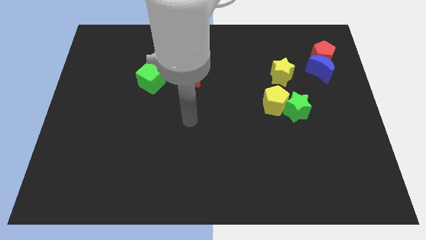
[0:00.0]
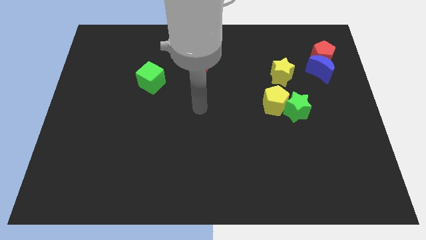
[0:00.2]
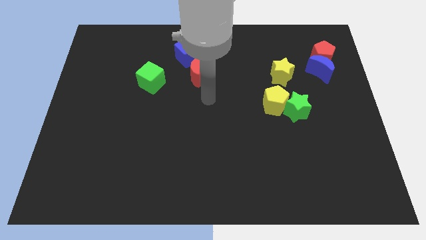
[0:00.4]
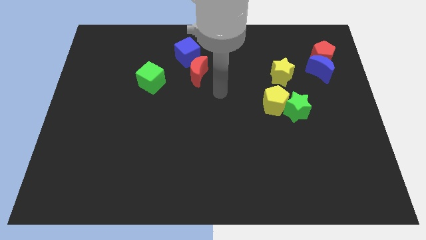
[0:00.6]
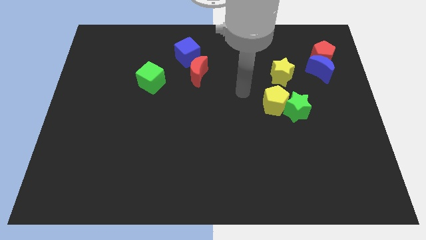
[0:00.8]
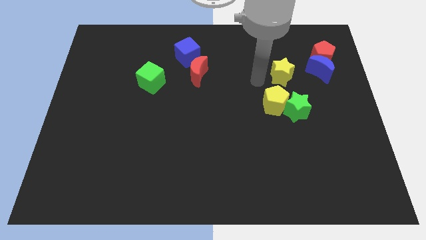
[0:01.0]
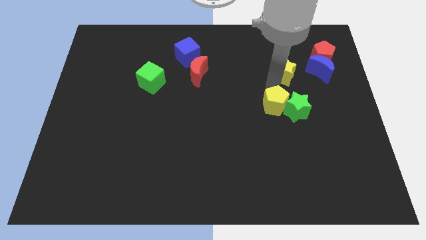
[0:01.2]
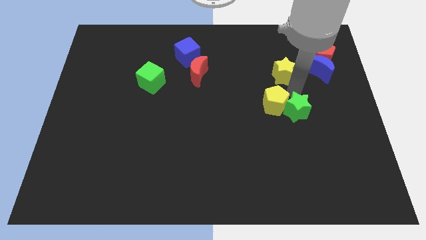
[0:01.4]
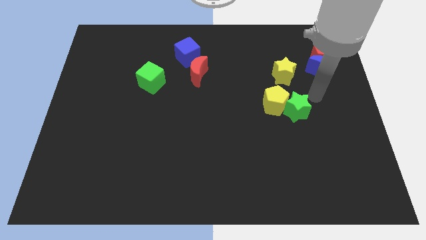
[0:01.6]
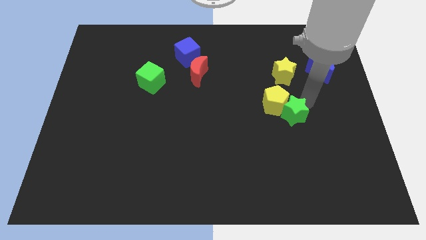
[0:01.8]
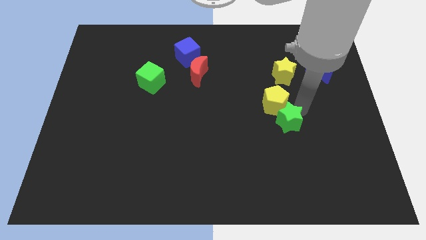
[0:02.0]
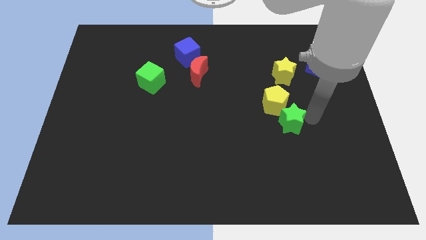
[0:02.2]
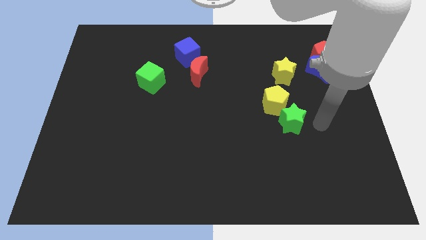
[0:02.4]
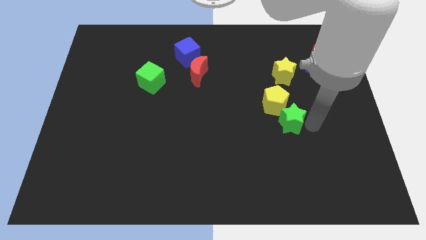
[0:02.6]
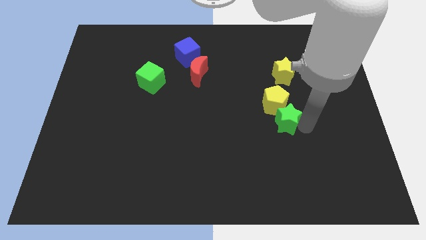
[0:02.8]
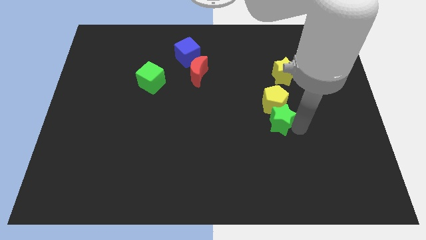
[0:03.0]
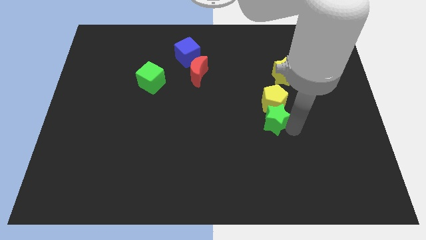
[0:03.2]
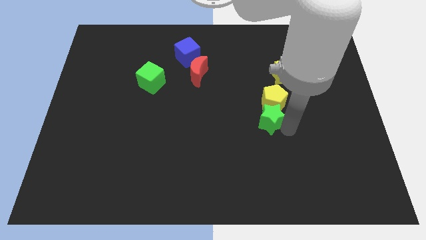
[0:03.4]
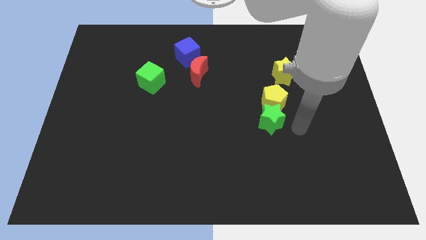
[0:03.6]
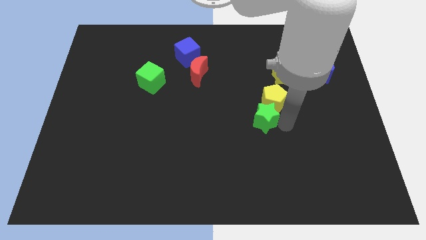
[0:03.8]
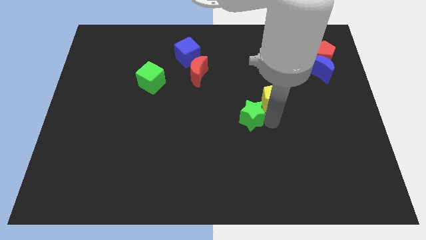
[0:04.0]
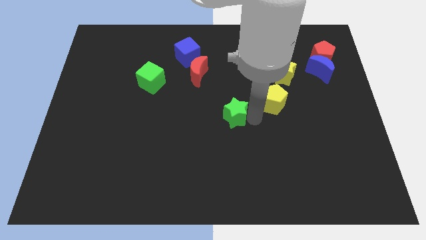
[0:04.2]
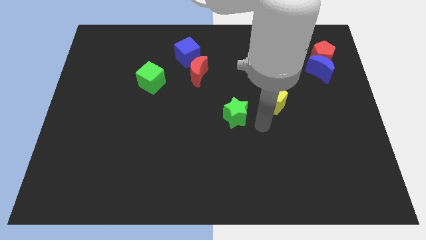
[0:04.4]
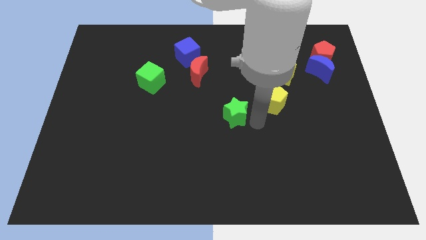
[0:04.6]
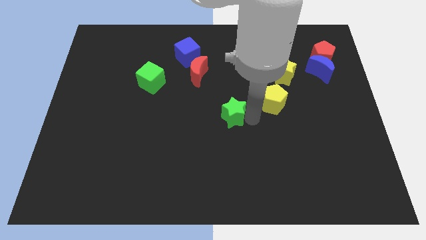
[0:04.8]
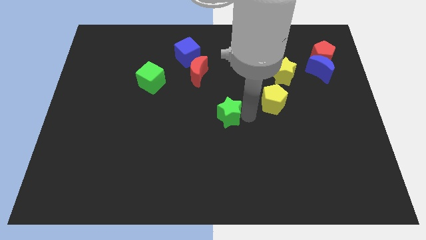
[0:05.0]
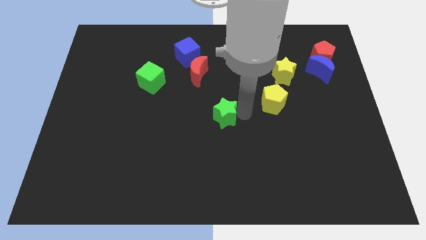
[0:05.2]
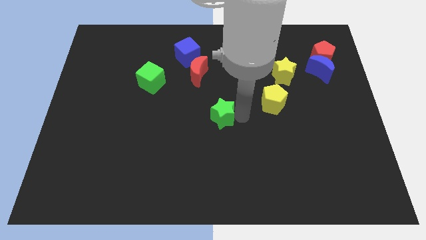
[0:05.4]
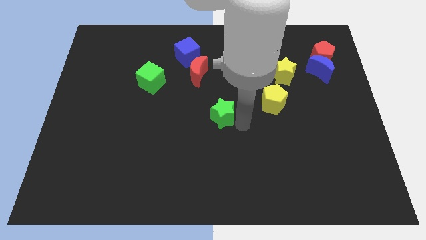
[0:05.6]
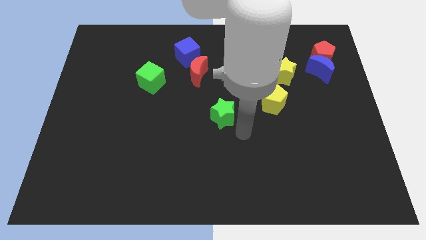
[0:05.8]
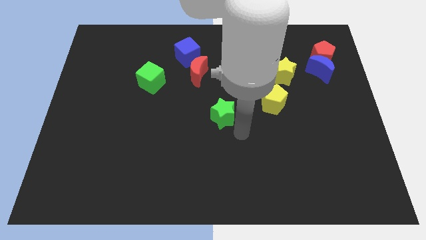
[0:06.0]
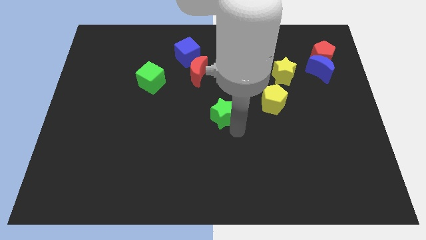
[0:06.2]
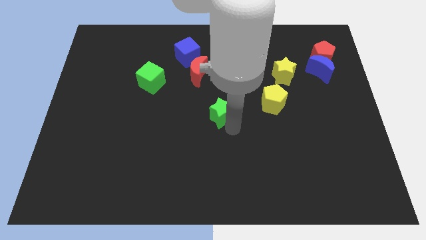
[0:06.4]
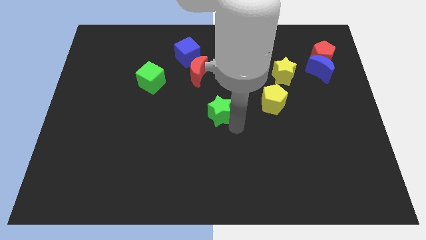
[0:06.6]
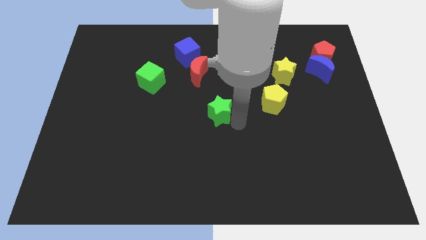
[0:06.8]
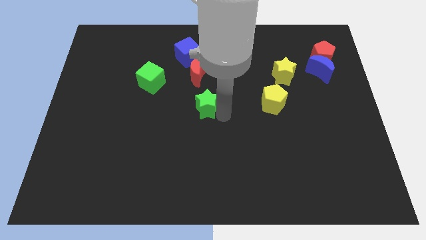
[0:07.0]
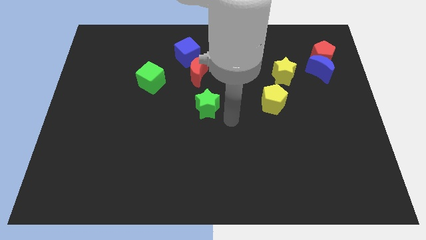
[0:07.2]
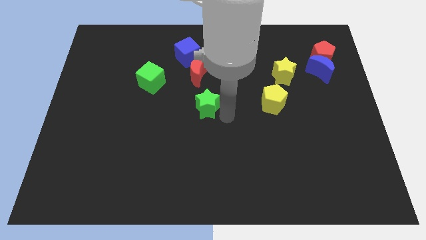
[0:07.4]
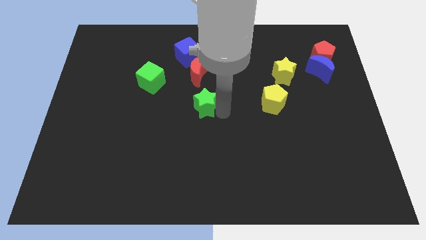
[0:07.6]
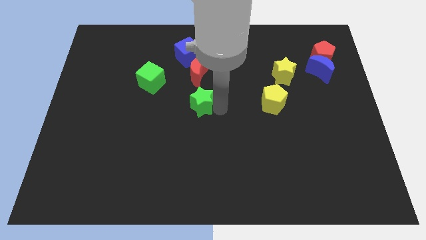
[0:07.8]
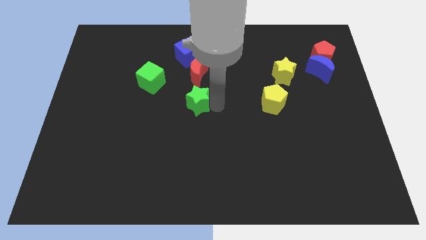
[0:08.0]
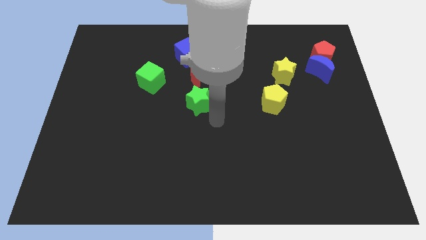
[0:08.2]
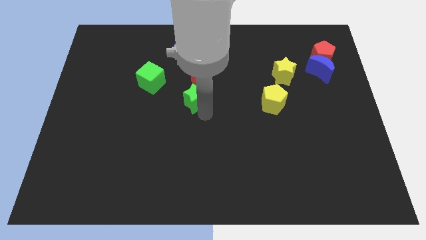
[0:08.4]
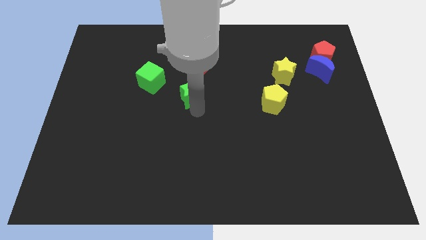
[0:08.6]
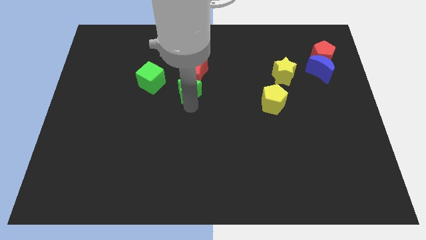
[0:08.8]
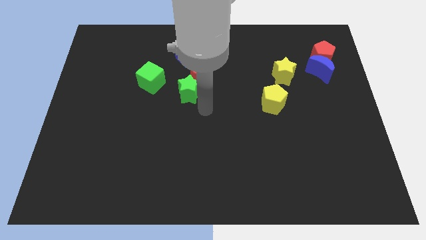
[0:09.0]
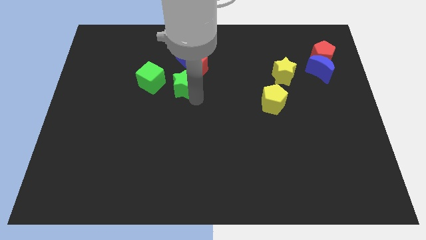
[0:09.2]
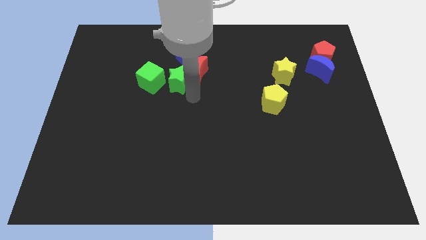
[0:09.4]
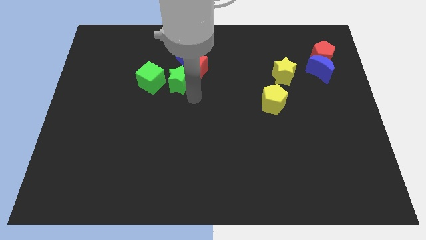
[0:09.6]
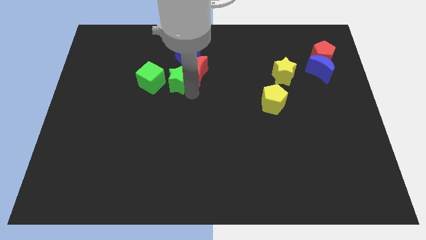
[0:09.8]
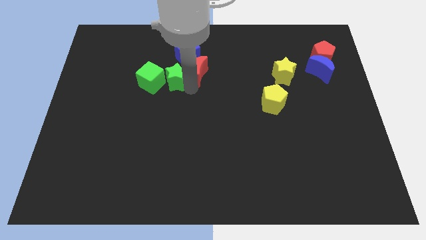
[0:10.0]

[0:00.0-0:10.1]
put the green star to the bottom left side of the blue cube
